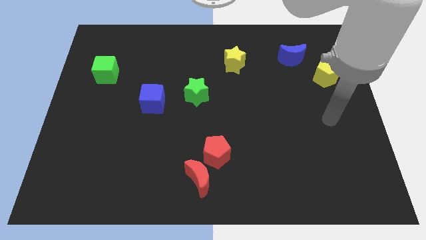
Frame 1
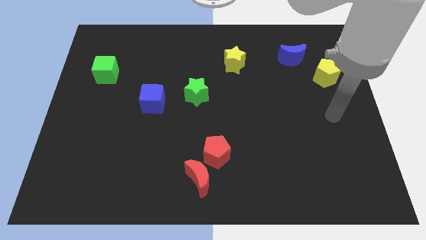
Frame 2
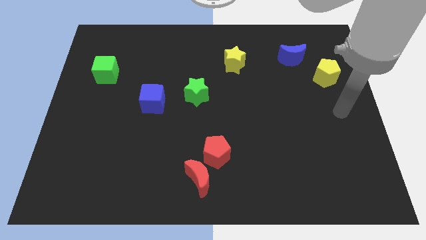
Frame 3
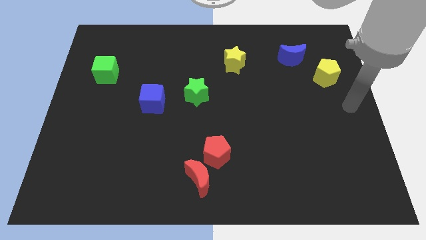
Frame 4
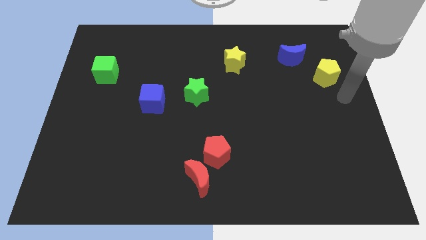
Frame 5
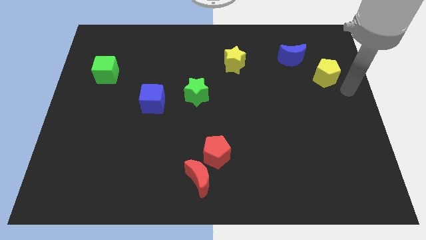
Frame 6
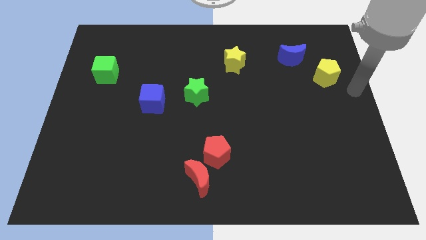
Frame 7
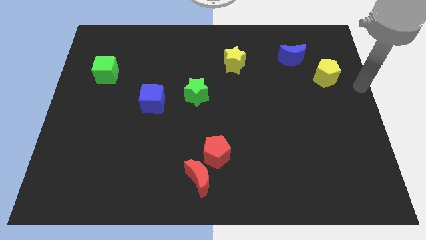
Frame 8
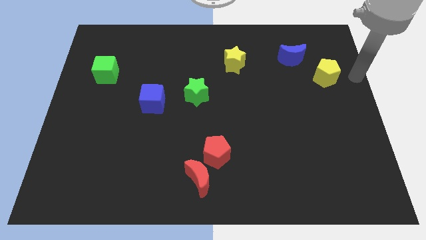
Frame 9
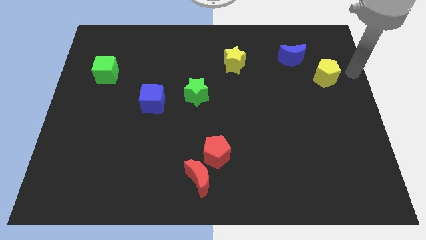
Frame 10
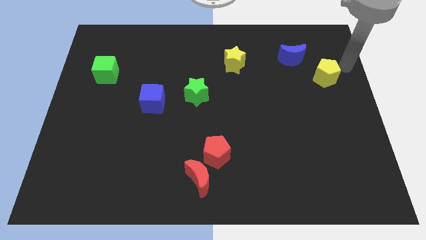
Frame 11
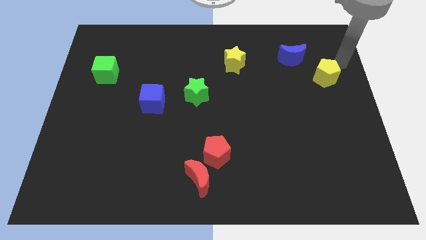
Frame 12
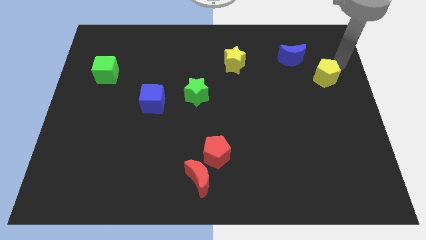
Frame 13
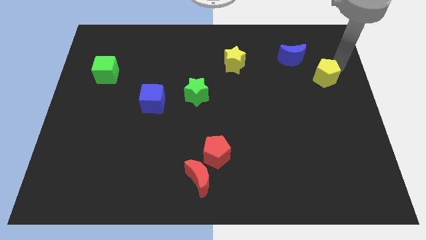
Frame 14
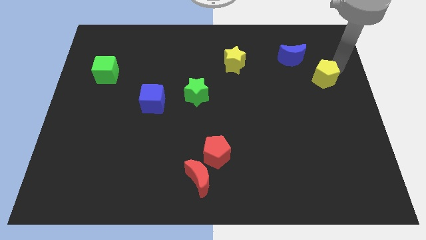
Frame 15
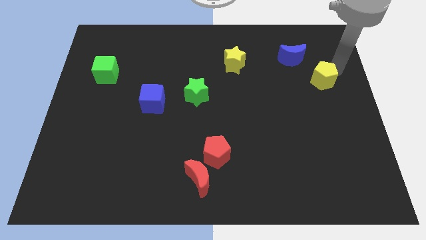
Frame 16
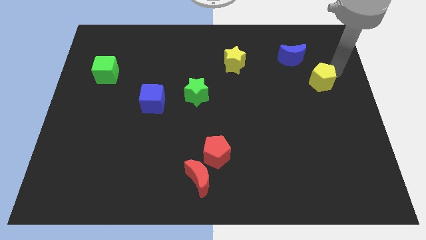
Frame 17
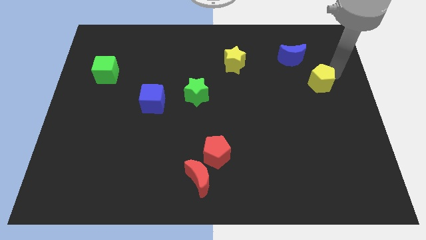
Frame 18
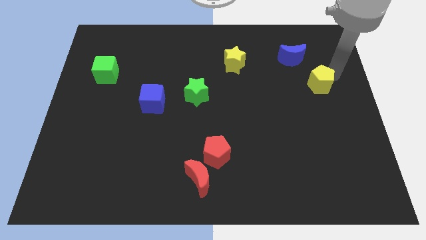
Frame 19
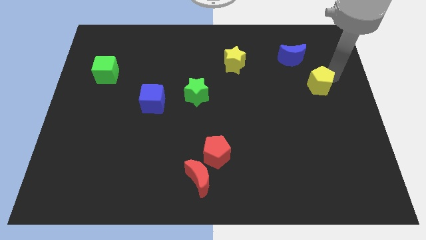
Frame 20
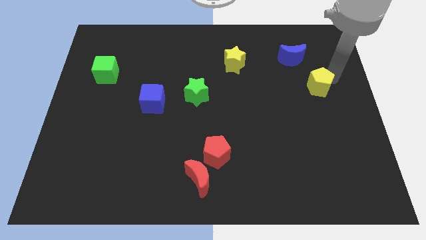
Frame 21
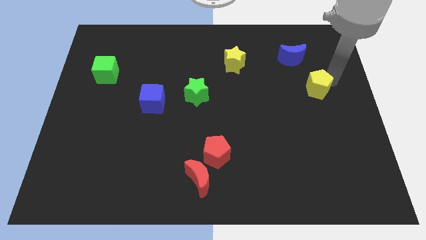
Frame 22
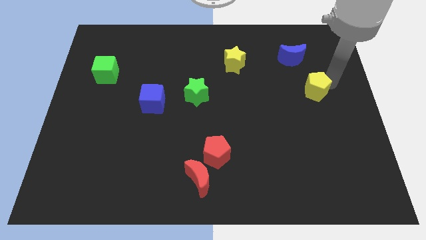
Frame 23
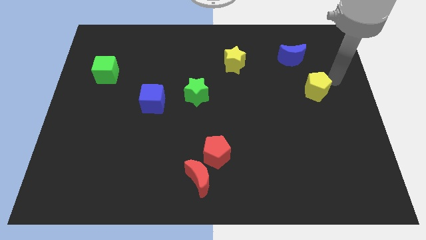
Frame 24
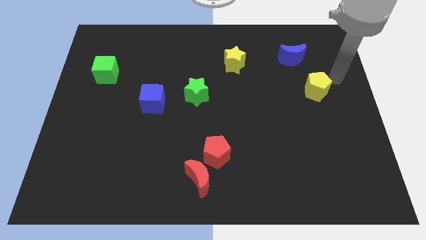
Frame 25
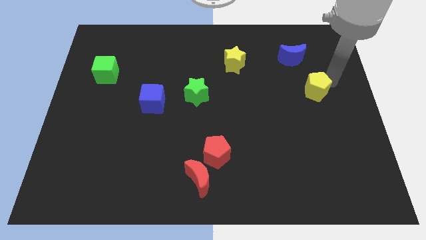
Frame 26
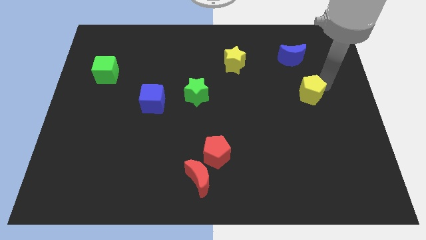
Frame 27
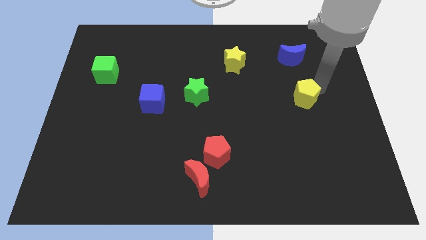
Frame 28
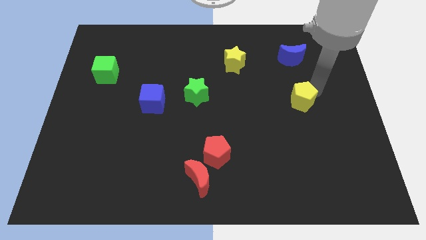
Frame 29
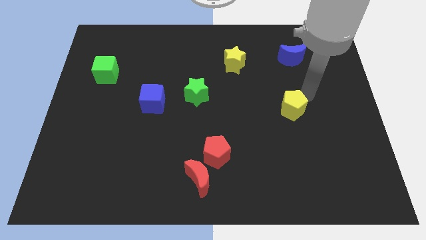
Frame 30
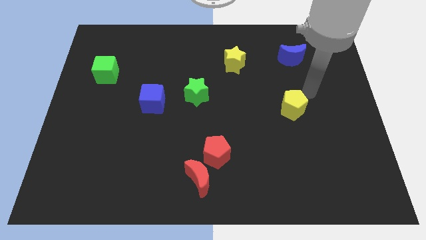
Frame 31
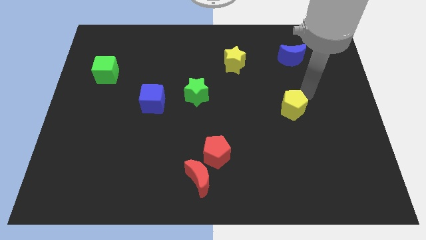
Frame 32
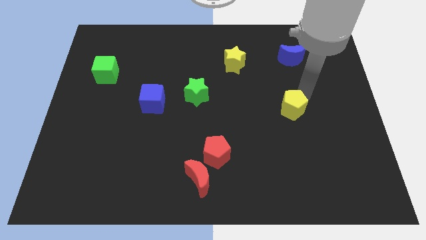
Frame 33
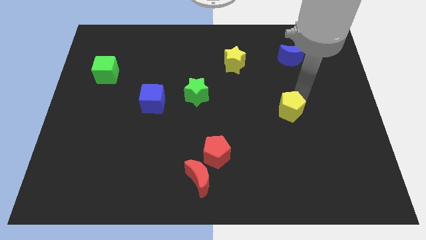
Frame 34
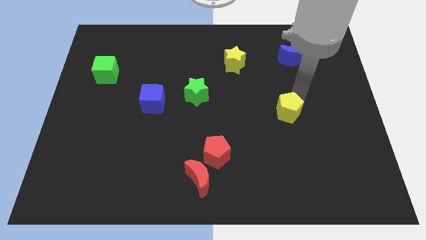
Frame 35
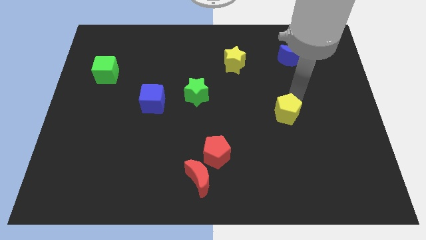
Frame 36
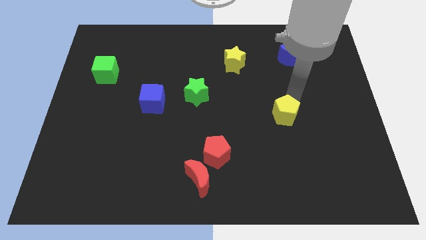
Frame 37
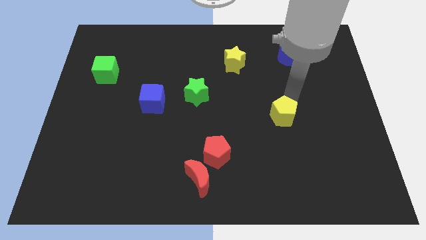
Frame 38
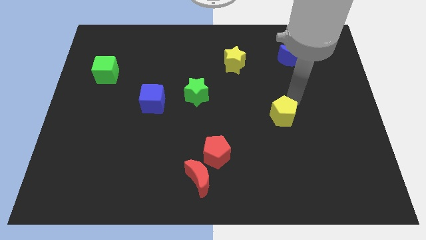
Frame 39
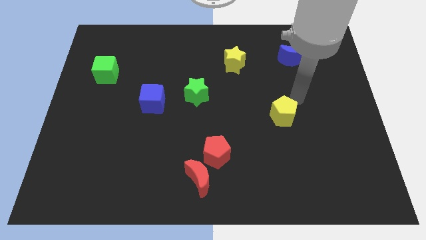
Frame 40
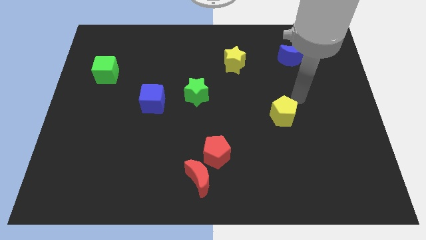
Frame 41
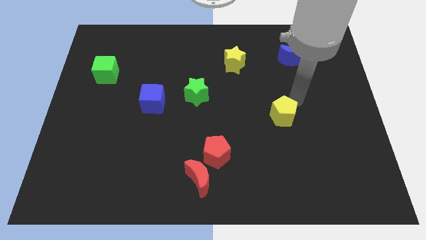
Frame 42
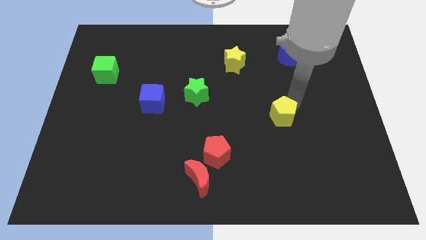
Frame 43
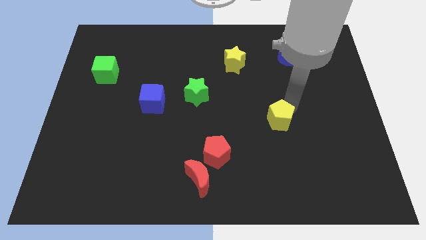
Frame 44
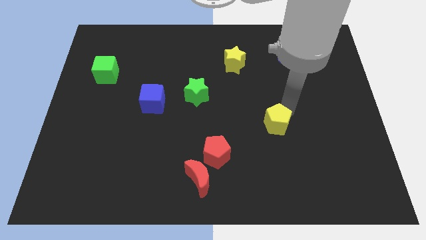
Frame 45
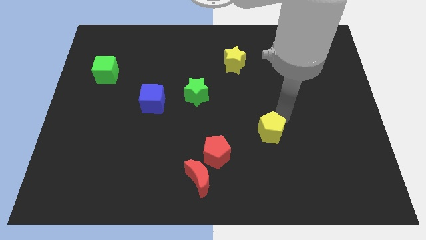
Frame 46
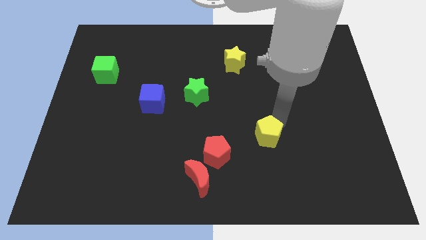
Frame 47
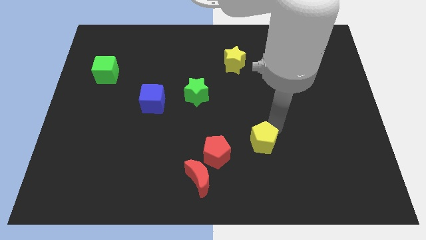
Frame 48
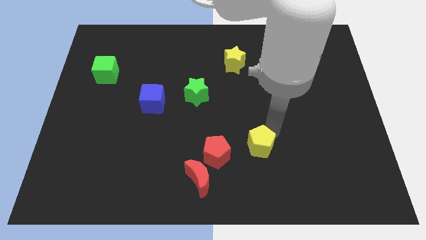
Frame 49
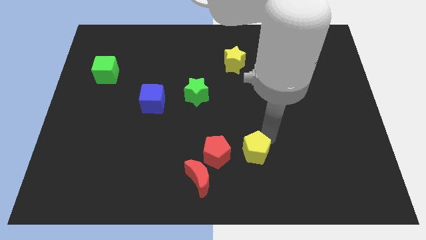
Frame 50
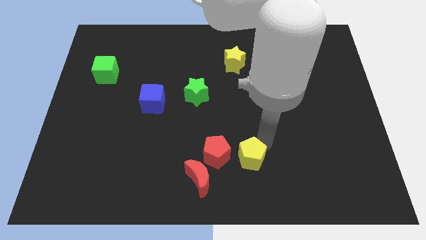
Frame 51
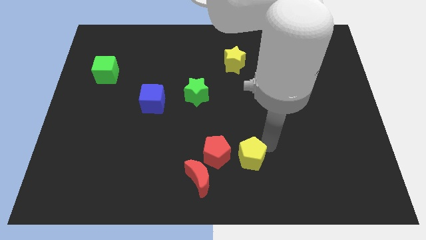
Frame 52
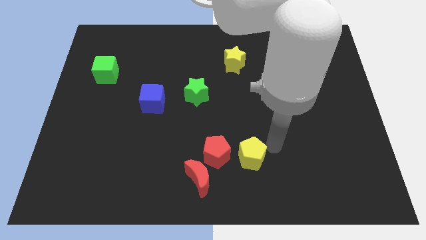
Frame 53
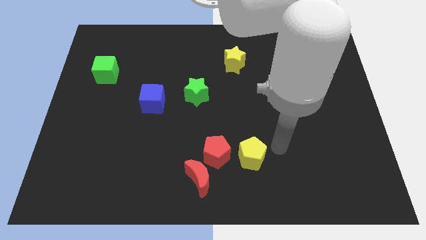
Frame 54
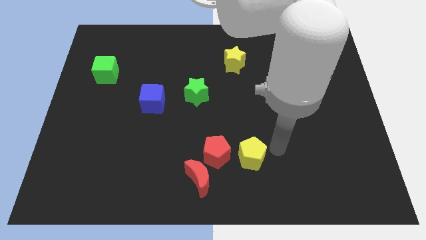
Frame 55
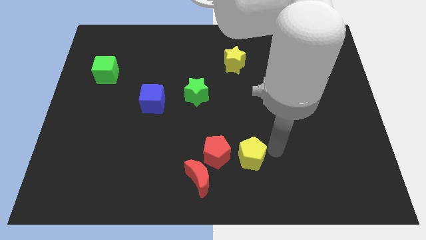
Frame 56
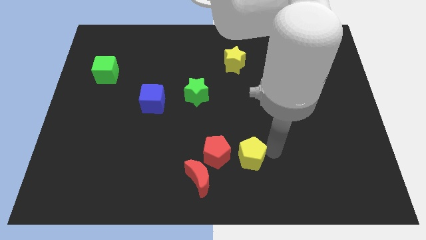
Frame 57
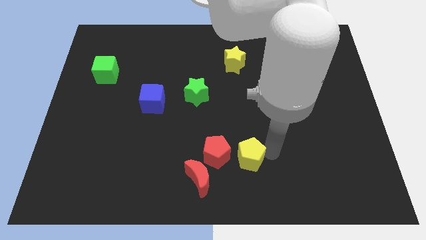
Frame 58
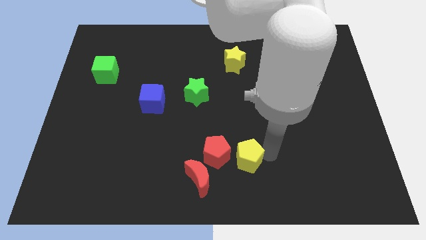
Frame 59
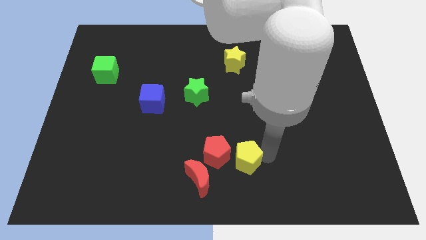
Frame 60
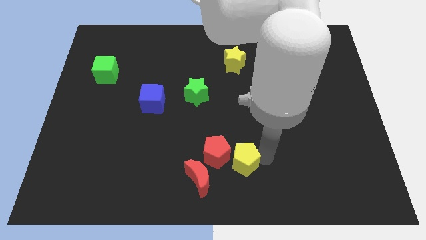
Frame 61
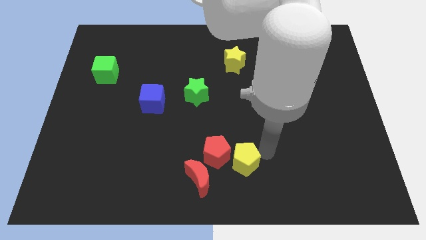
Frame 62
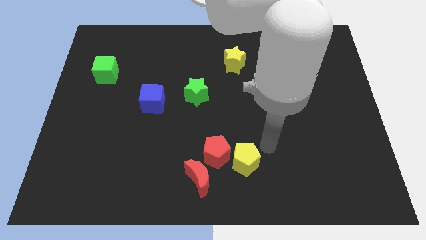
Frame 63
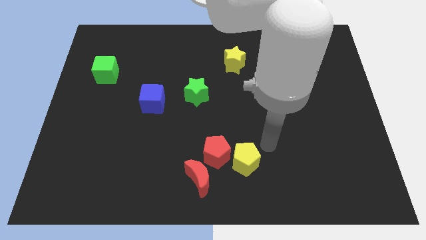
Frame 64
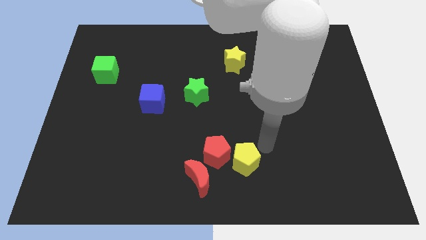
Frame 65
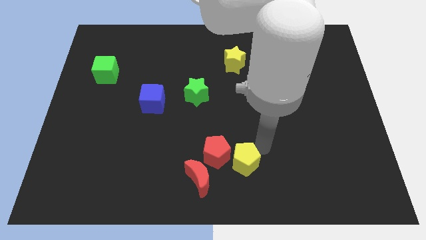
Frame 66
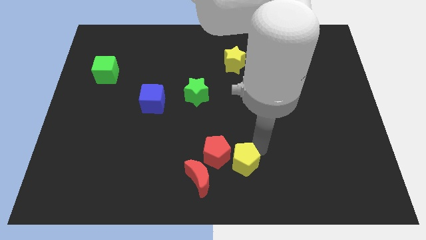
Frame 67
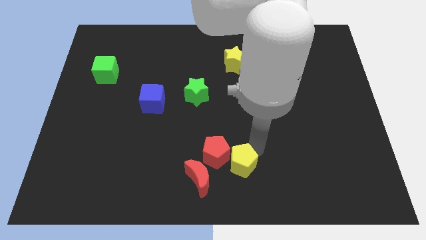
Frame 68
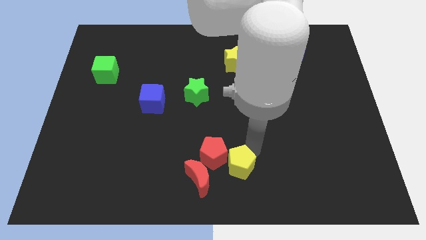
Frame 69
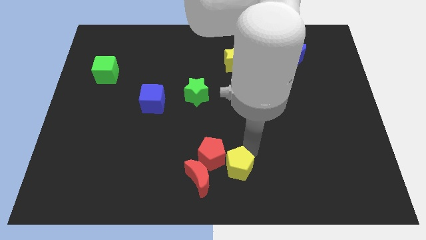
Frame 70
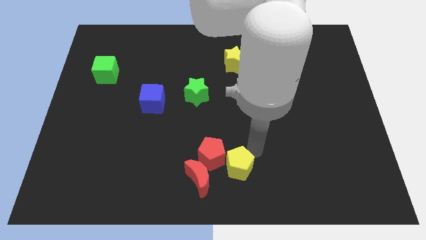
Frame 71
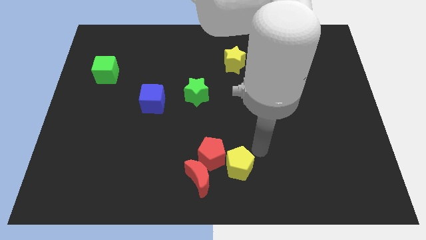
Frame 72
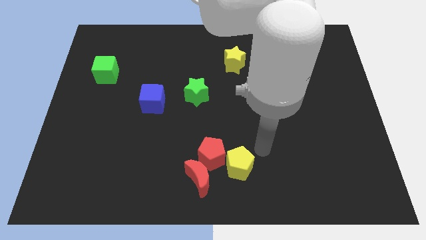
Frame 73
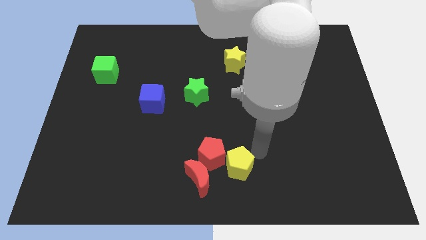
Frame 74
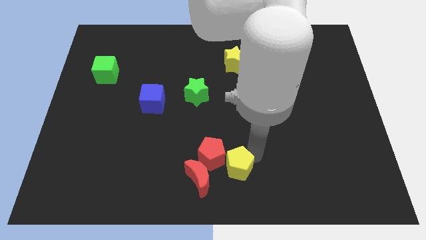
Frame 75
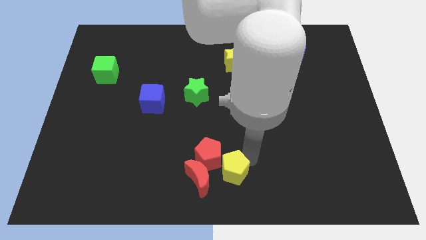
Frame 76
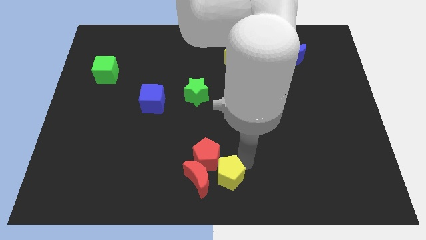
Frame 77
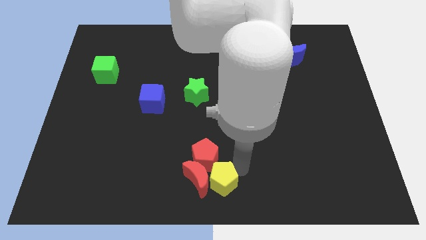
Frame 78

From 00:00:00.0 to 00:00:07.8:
move the yellow pentagon towards the red moon
